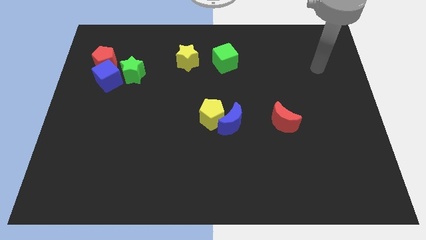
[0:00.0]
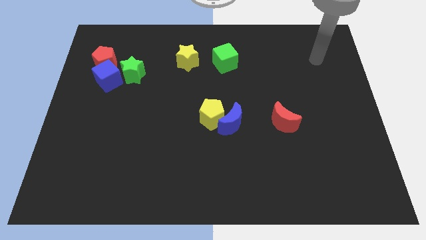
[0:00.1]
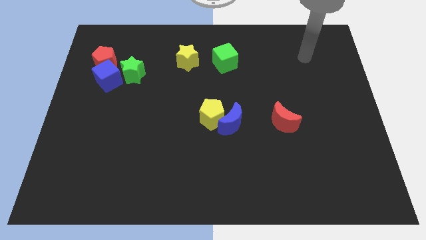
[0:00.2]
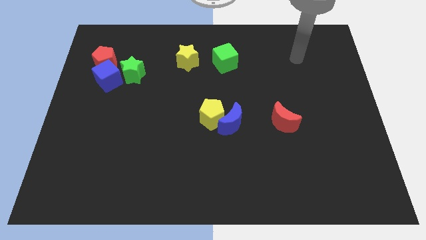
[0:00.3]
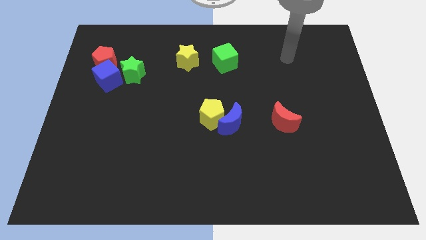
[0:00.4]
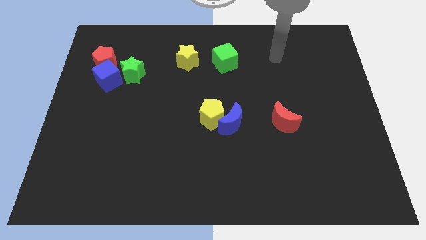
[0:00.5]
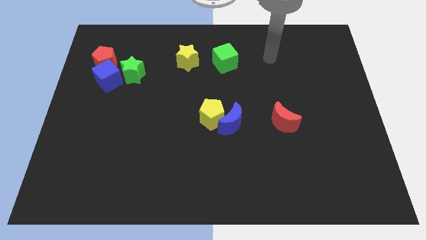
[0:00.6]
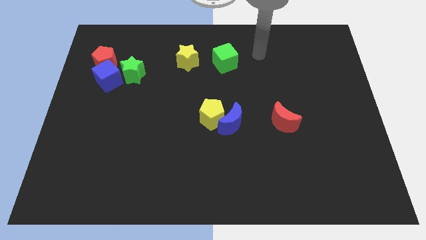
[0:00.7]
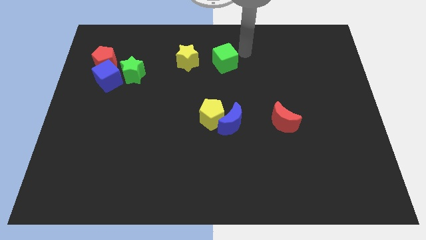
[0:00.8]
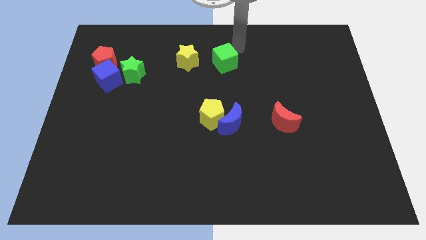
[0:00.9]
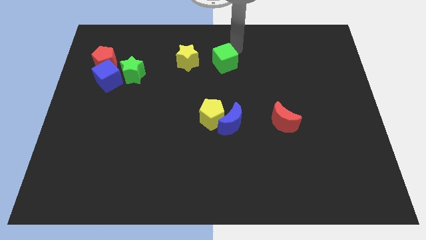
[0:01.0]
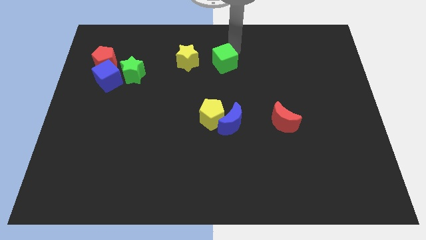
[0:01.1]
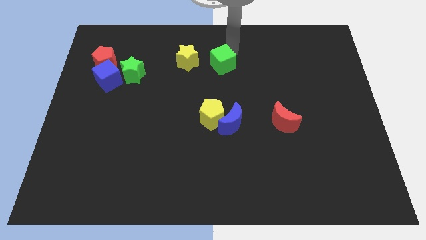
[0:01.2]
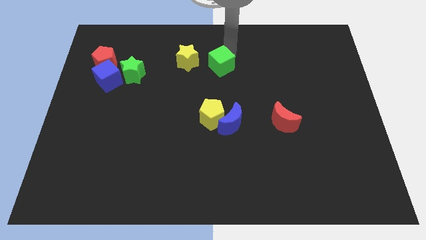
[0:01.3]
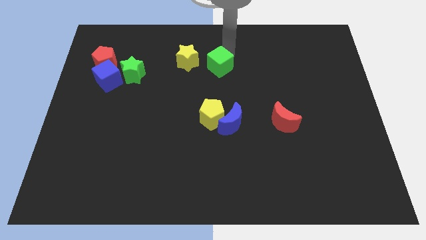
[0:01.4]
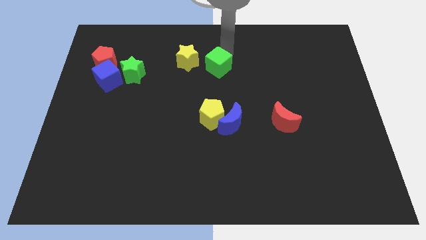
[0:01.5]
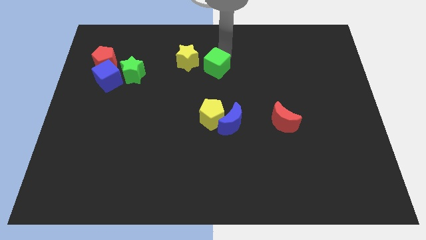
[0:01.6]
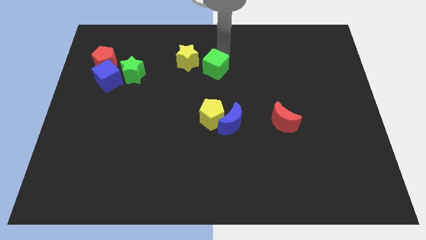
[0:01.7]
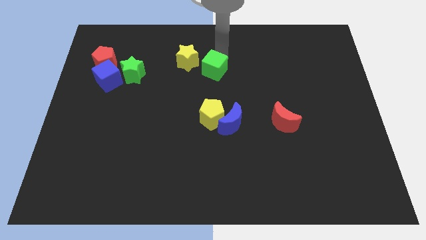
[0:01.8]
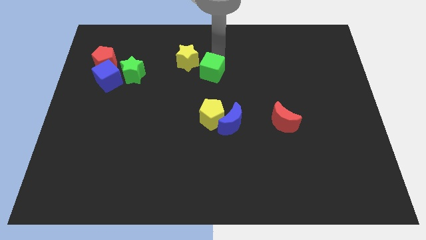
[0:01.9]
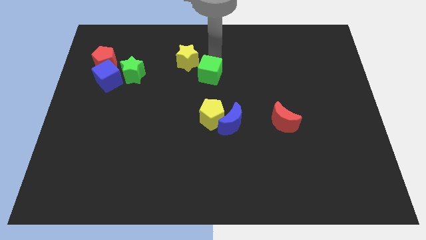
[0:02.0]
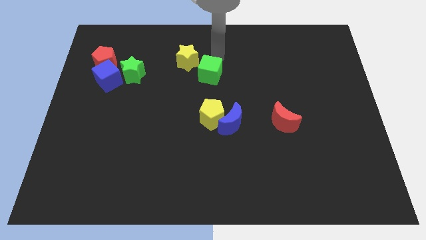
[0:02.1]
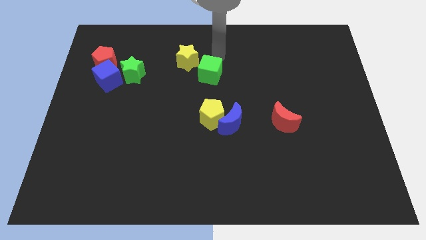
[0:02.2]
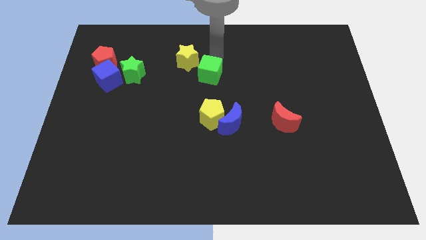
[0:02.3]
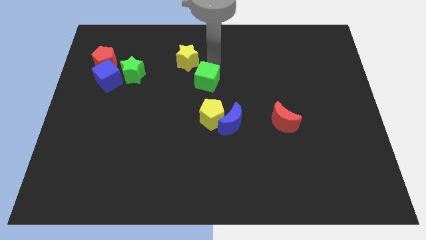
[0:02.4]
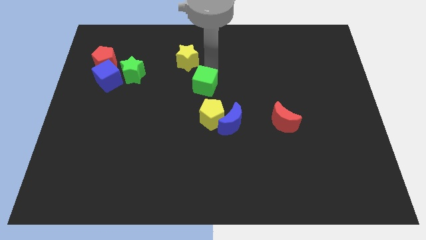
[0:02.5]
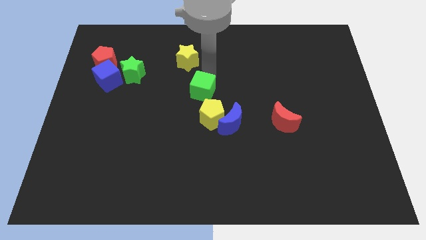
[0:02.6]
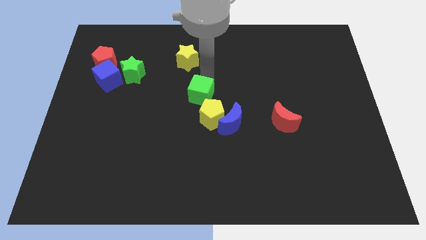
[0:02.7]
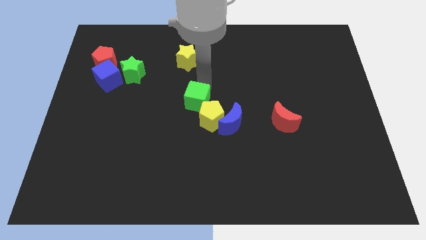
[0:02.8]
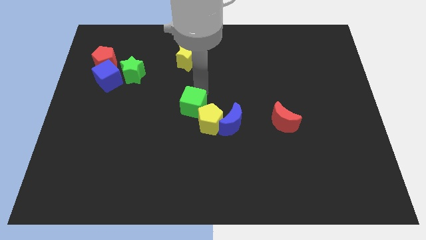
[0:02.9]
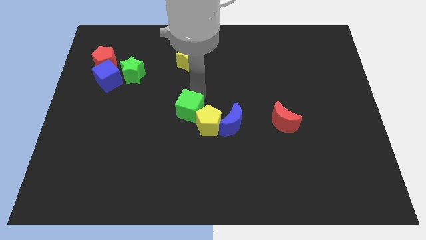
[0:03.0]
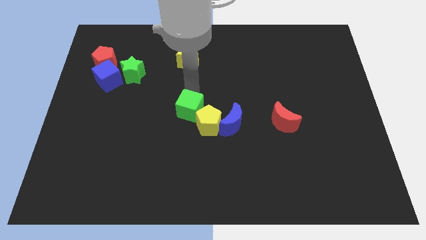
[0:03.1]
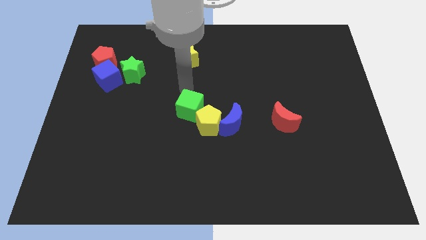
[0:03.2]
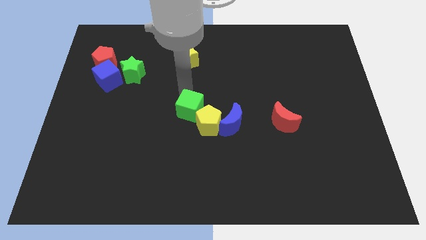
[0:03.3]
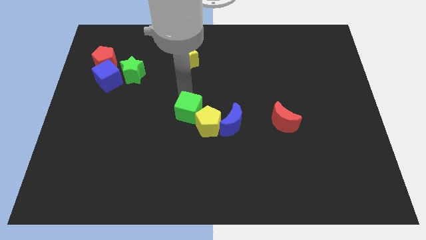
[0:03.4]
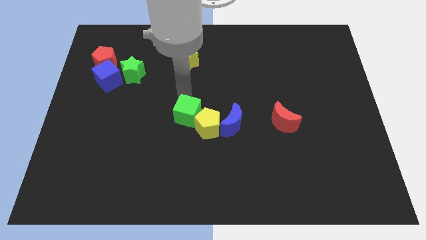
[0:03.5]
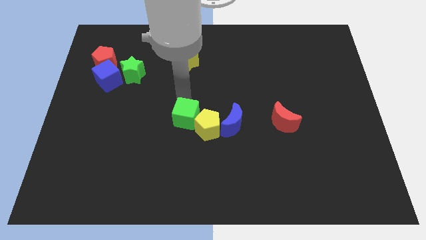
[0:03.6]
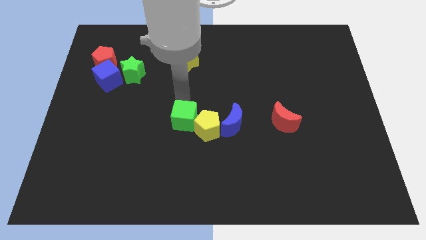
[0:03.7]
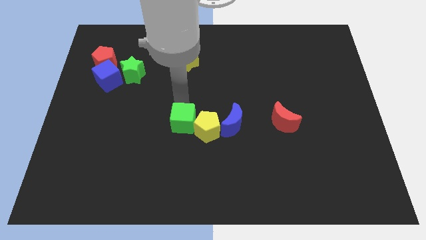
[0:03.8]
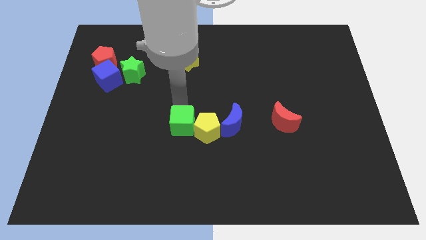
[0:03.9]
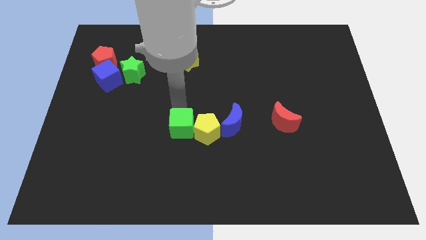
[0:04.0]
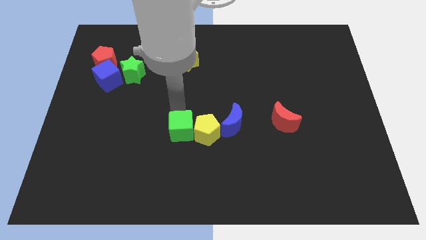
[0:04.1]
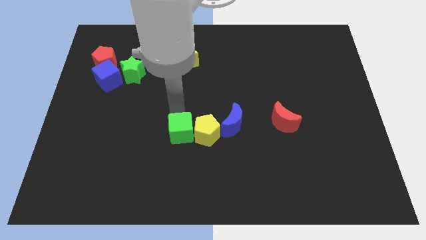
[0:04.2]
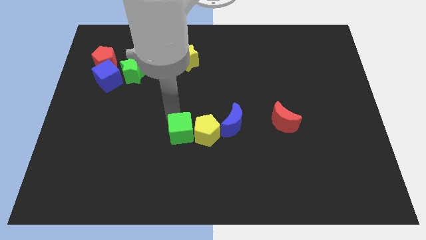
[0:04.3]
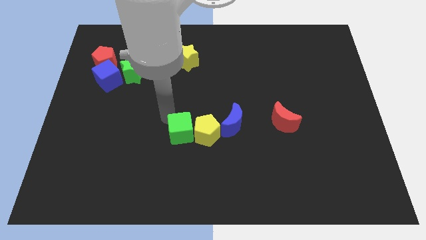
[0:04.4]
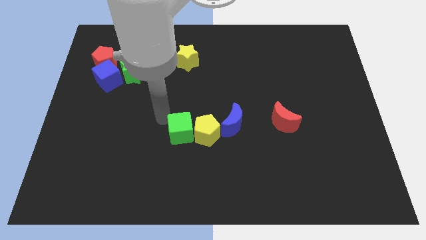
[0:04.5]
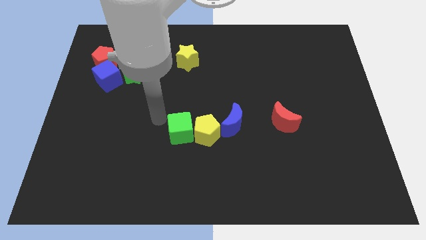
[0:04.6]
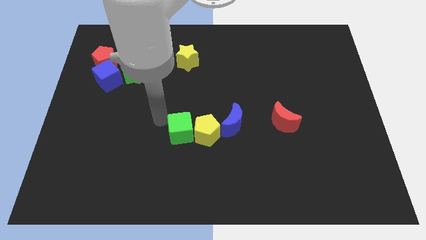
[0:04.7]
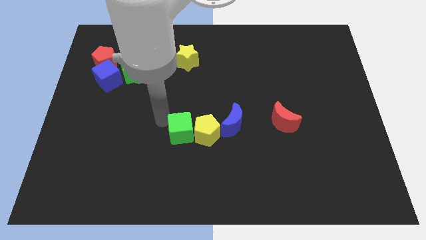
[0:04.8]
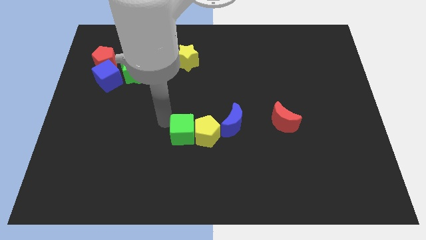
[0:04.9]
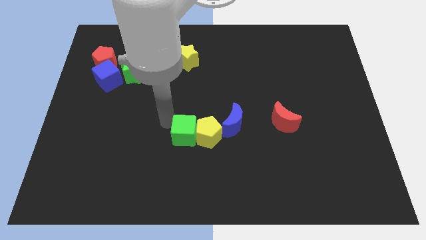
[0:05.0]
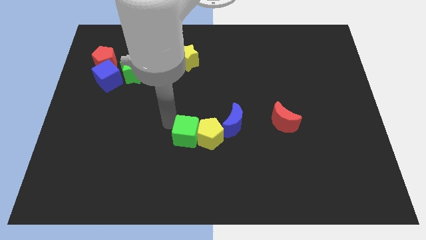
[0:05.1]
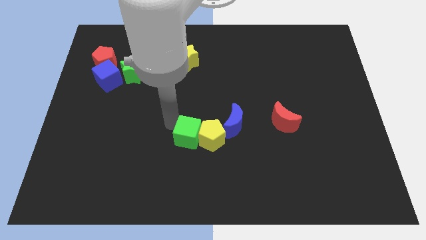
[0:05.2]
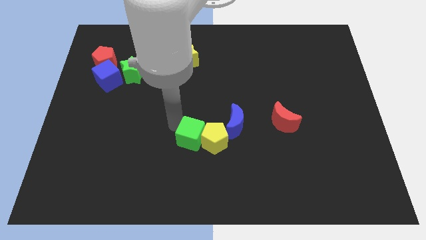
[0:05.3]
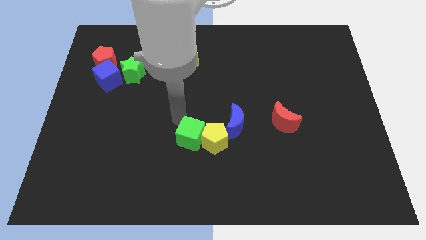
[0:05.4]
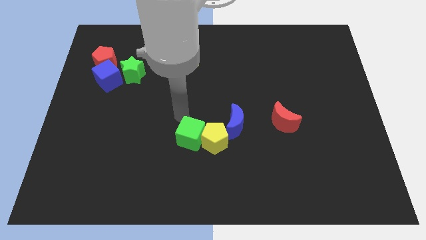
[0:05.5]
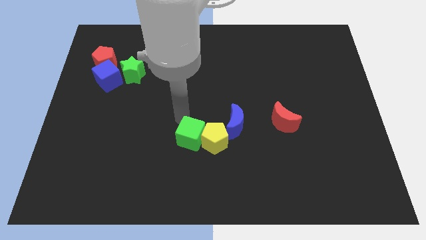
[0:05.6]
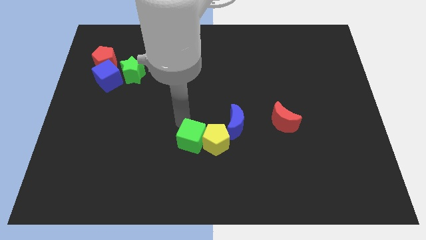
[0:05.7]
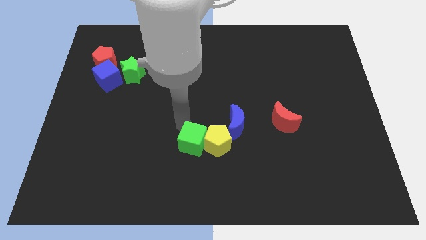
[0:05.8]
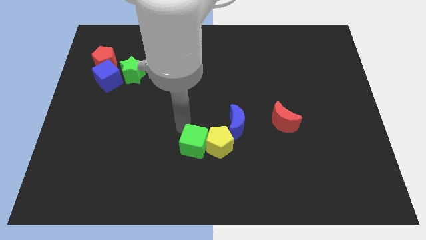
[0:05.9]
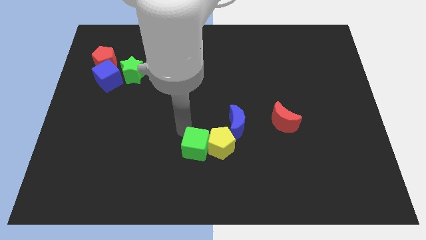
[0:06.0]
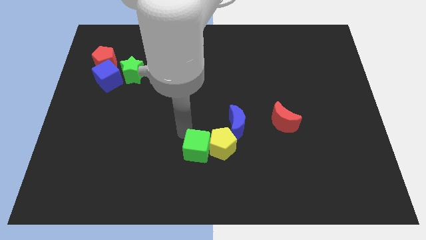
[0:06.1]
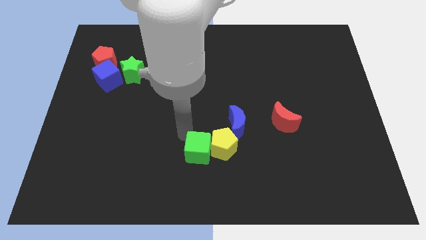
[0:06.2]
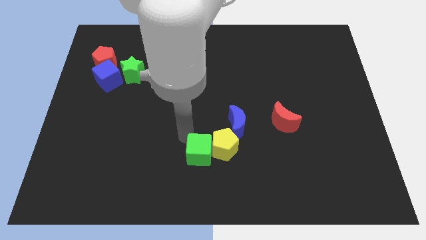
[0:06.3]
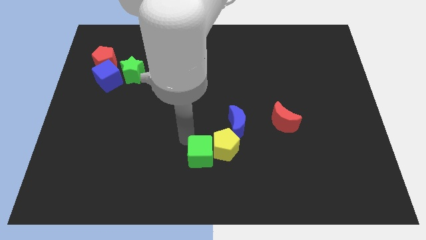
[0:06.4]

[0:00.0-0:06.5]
slide the green cube to the bottom side
